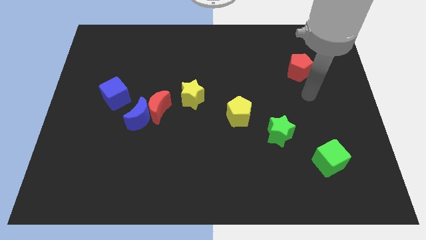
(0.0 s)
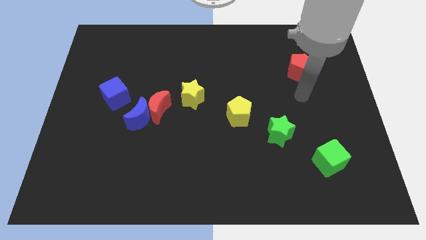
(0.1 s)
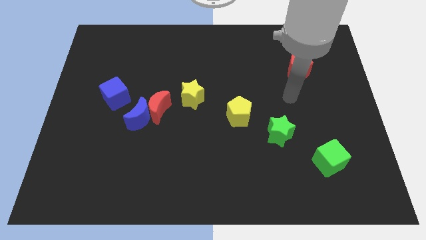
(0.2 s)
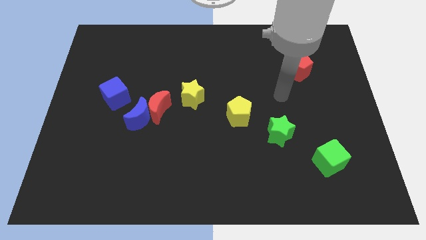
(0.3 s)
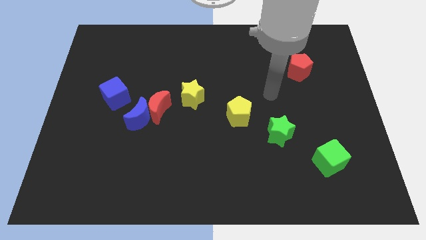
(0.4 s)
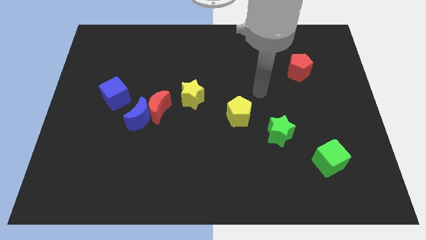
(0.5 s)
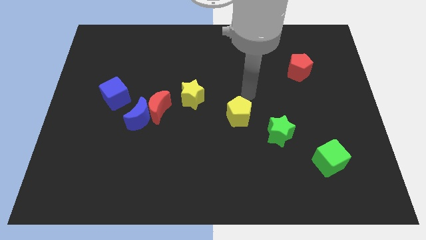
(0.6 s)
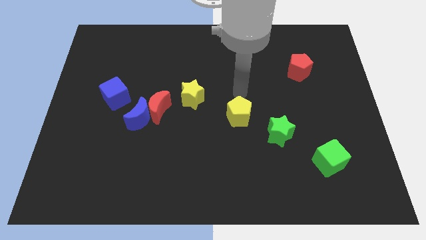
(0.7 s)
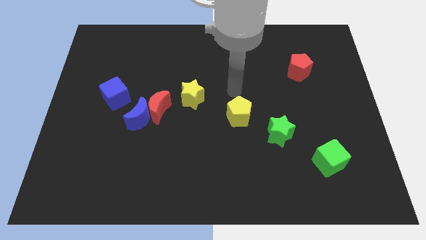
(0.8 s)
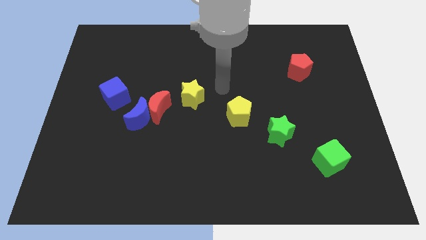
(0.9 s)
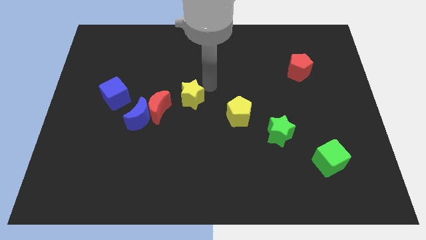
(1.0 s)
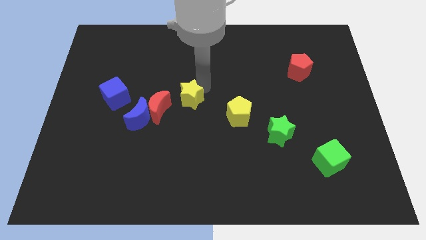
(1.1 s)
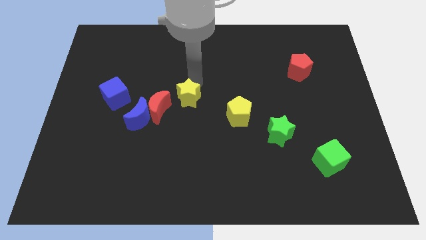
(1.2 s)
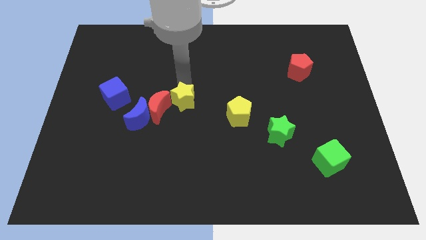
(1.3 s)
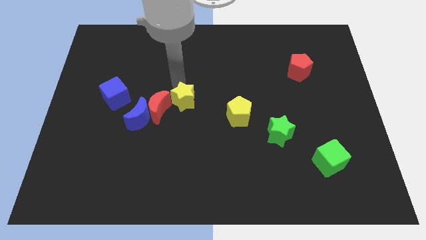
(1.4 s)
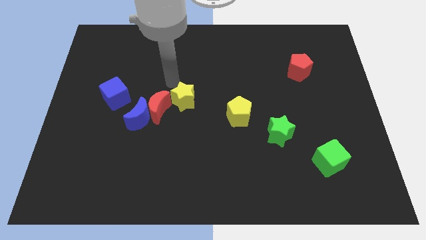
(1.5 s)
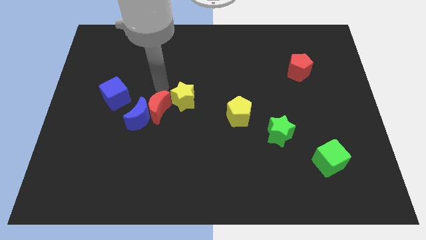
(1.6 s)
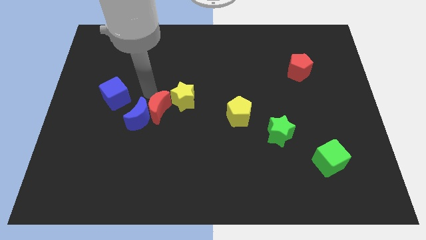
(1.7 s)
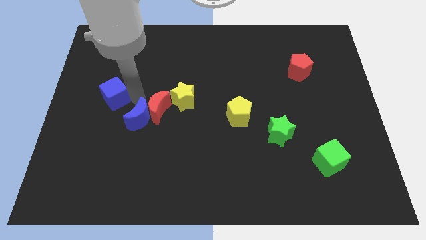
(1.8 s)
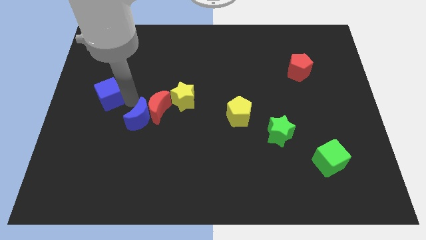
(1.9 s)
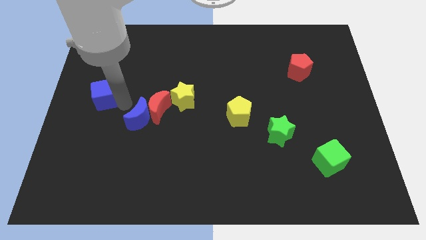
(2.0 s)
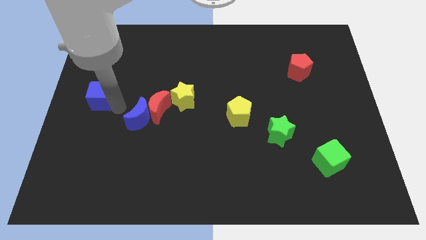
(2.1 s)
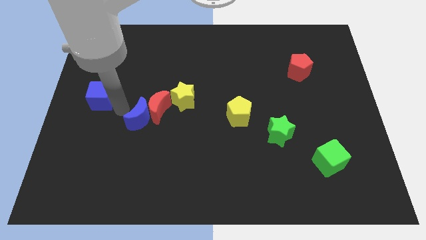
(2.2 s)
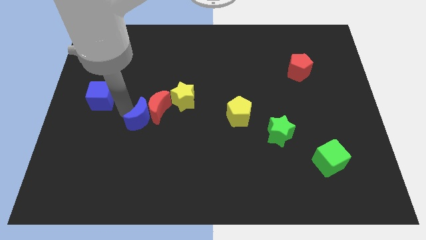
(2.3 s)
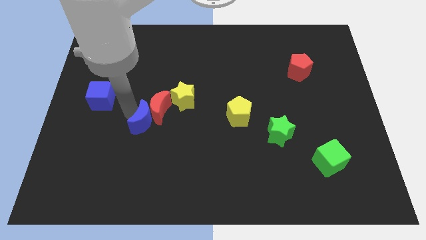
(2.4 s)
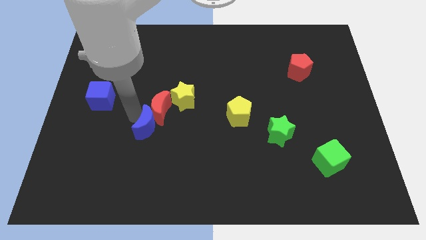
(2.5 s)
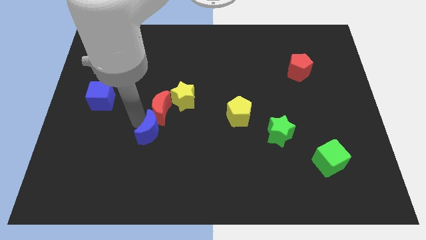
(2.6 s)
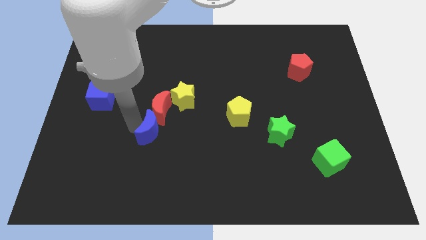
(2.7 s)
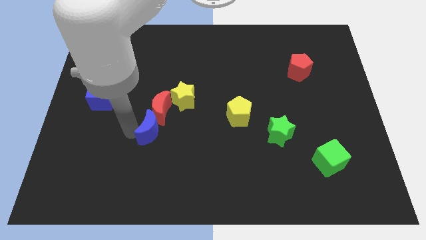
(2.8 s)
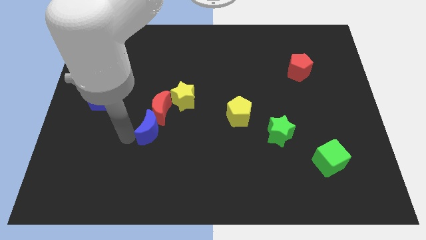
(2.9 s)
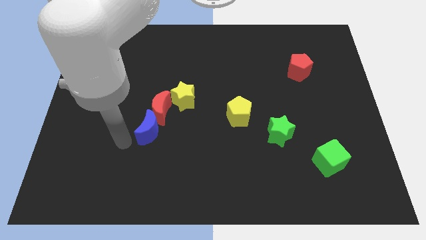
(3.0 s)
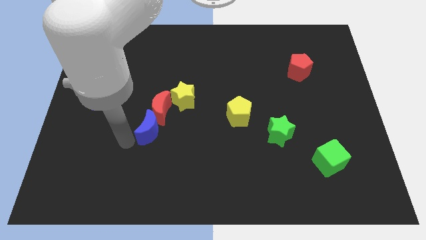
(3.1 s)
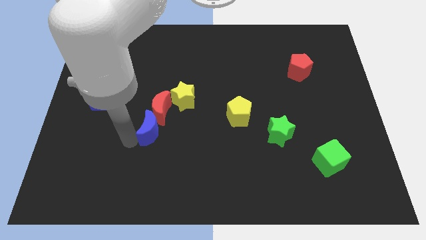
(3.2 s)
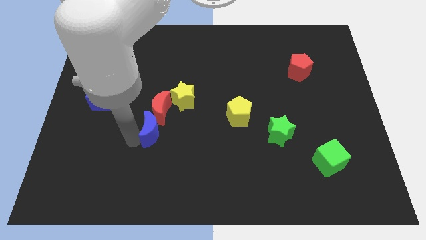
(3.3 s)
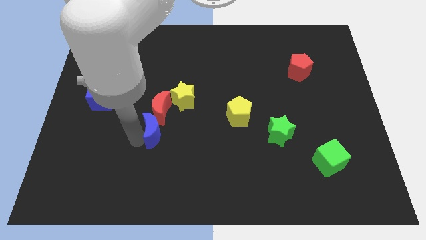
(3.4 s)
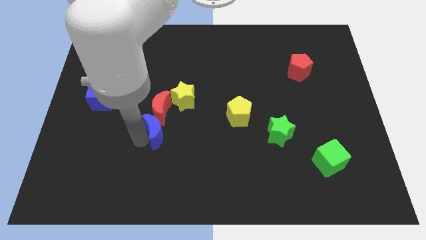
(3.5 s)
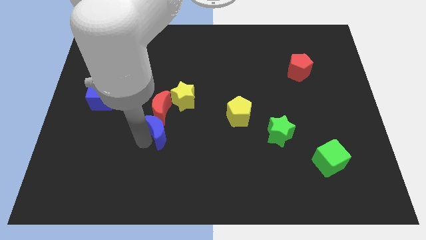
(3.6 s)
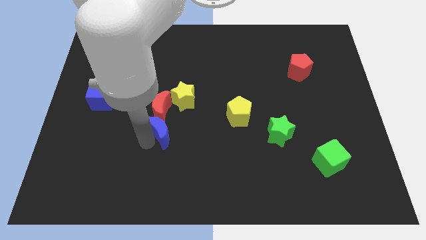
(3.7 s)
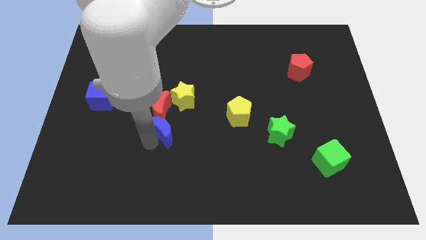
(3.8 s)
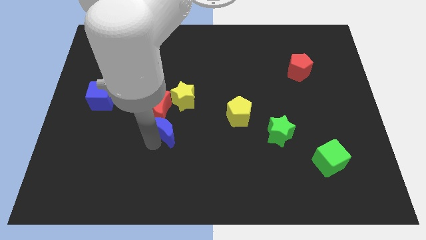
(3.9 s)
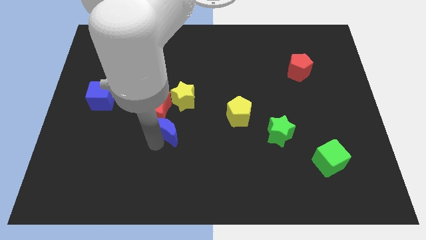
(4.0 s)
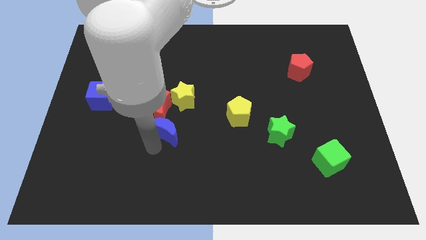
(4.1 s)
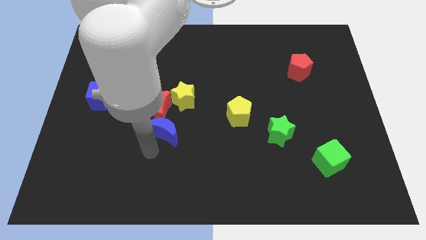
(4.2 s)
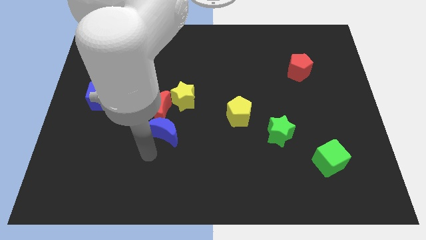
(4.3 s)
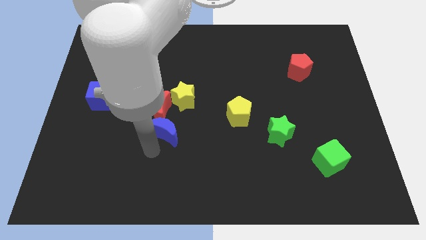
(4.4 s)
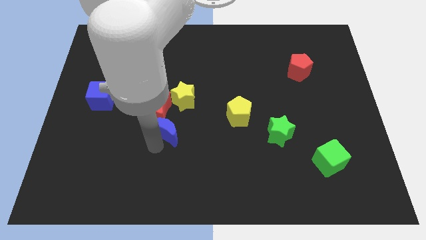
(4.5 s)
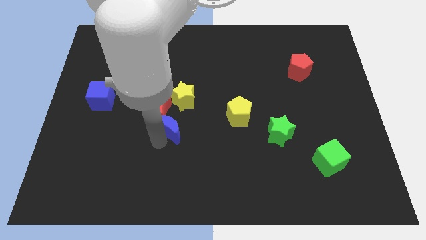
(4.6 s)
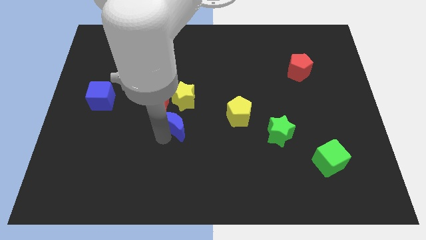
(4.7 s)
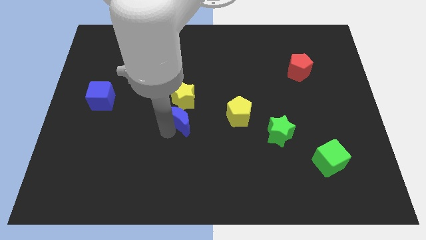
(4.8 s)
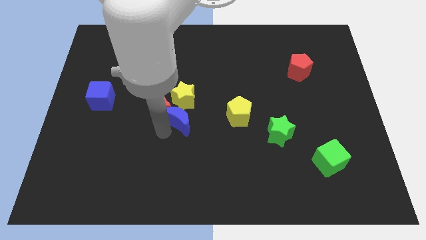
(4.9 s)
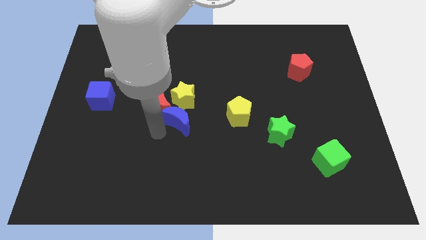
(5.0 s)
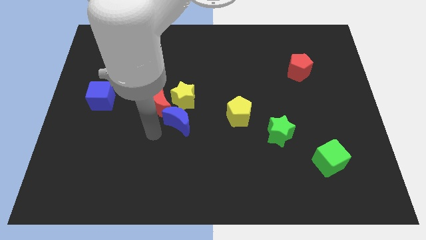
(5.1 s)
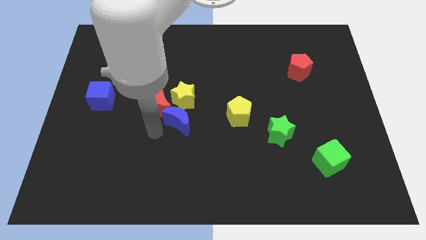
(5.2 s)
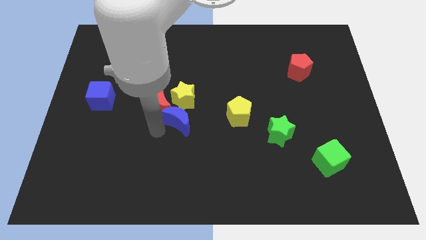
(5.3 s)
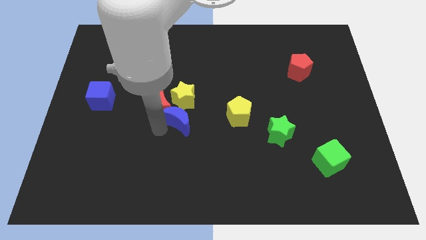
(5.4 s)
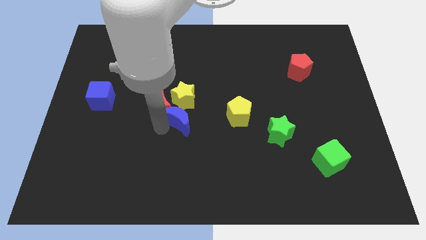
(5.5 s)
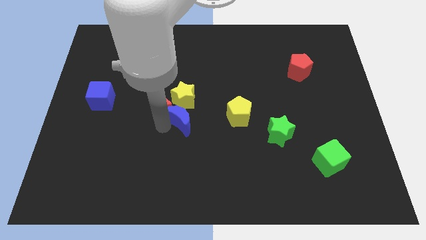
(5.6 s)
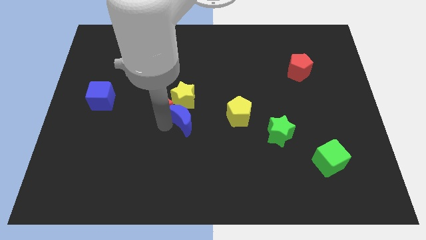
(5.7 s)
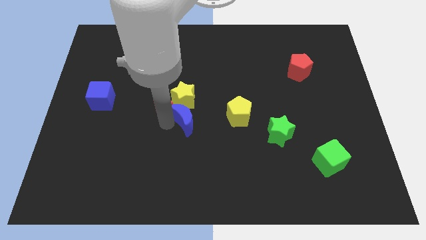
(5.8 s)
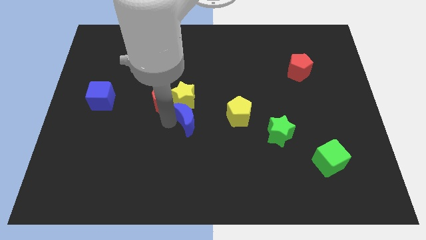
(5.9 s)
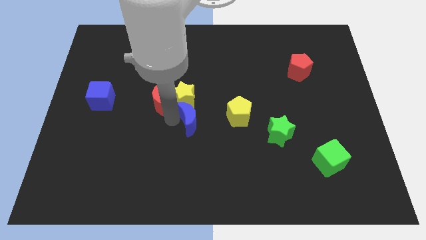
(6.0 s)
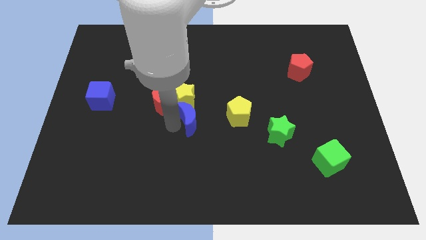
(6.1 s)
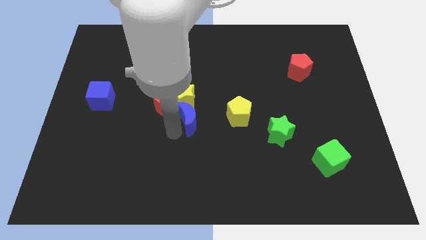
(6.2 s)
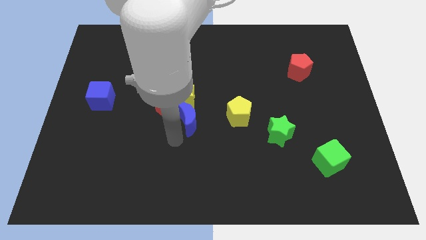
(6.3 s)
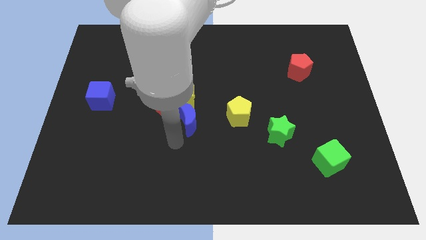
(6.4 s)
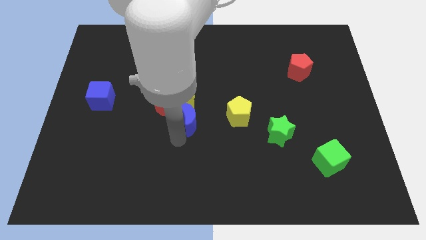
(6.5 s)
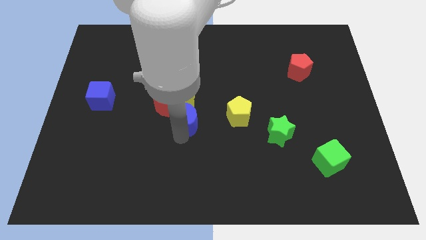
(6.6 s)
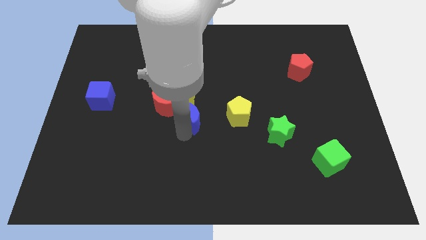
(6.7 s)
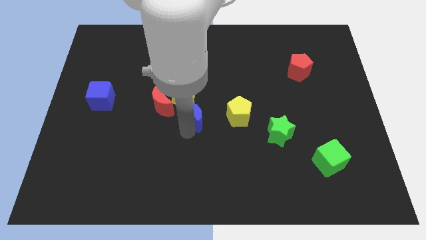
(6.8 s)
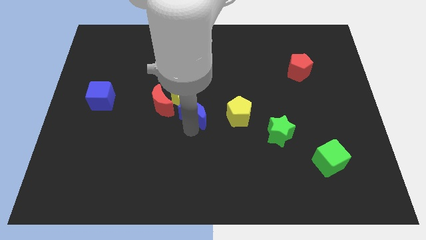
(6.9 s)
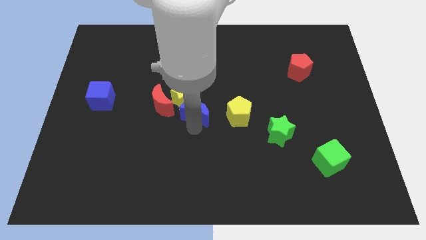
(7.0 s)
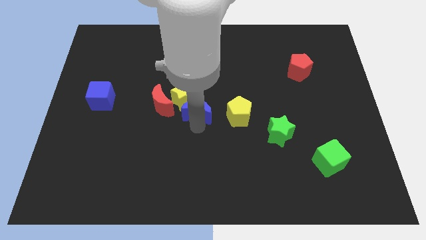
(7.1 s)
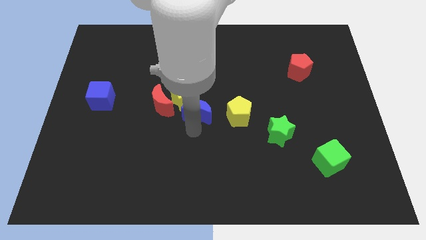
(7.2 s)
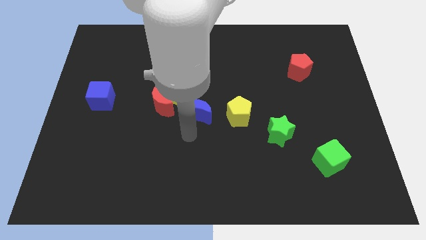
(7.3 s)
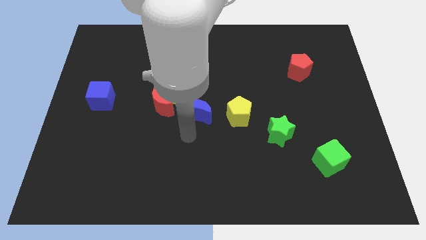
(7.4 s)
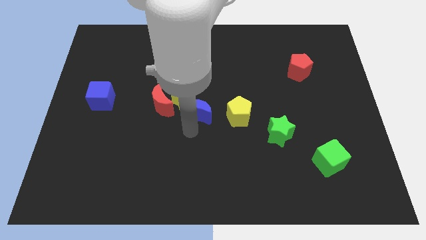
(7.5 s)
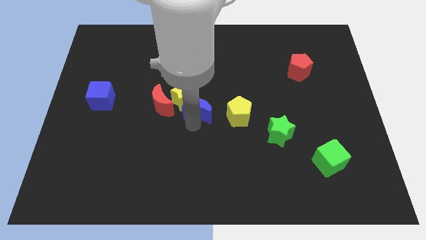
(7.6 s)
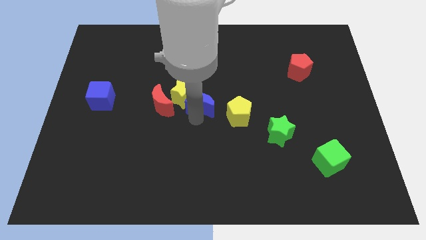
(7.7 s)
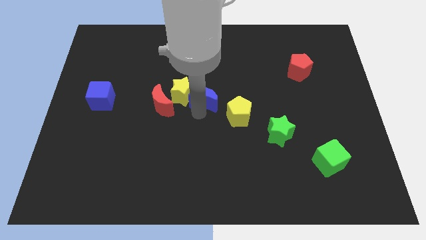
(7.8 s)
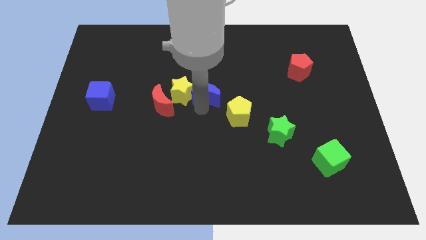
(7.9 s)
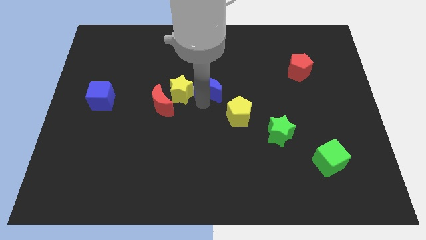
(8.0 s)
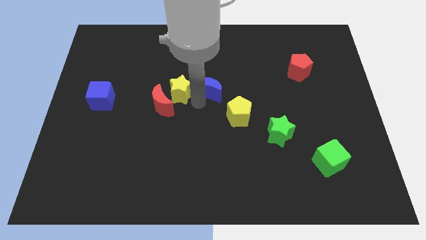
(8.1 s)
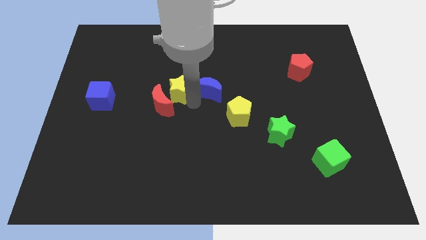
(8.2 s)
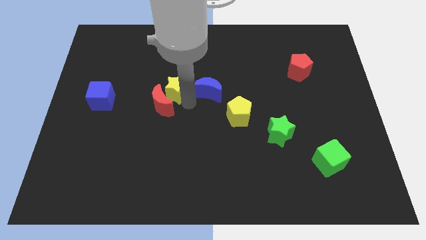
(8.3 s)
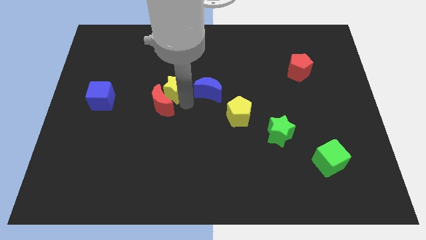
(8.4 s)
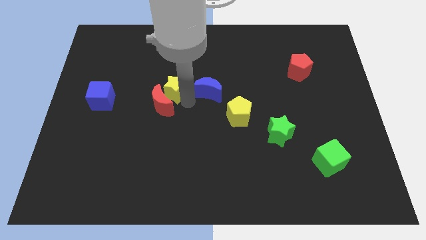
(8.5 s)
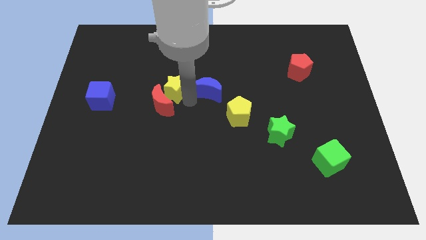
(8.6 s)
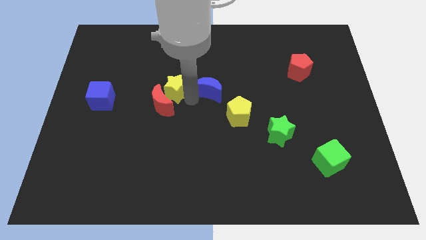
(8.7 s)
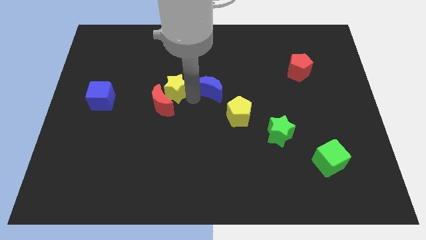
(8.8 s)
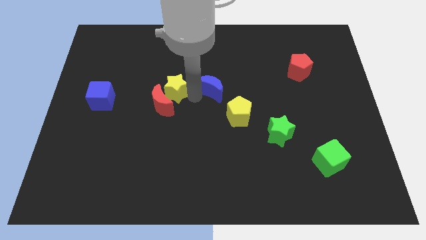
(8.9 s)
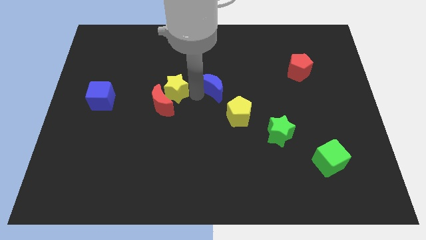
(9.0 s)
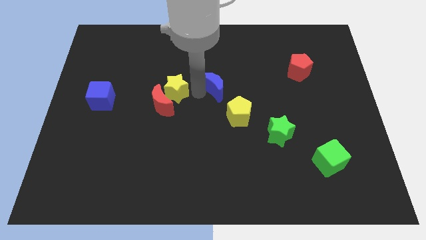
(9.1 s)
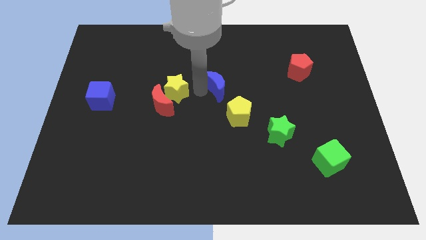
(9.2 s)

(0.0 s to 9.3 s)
slide the blue moon to the top of the yellow pentagon
